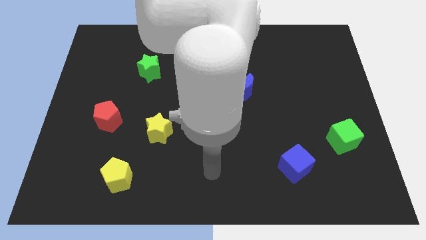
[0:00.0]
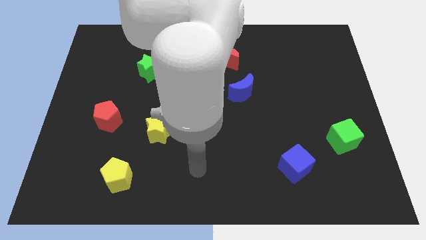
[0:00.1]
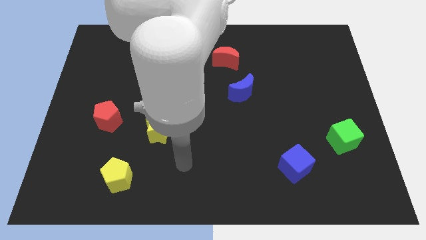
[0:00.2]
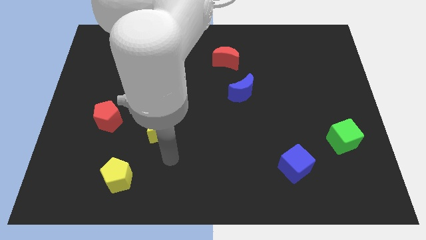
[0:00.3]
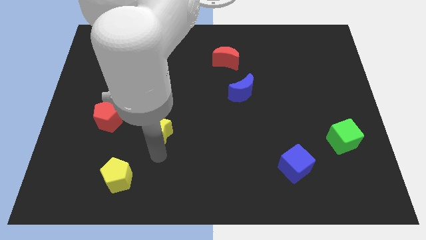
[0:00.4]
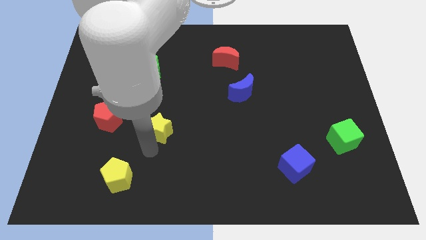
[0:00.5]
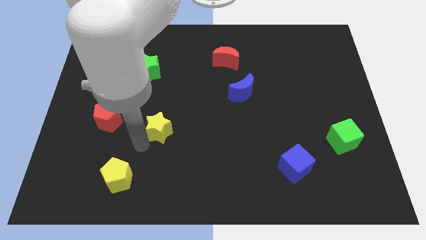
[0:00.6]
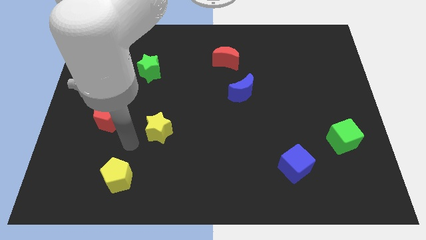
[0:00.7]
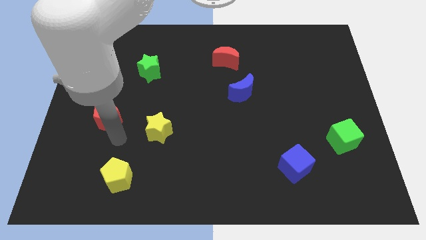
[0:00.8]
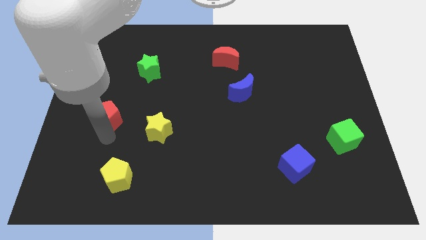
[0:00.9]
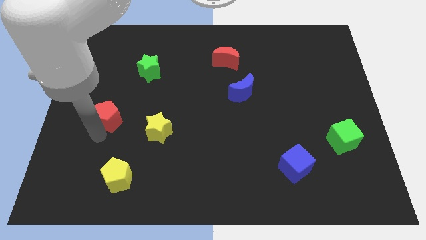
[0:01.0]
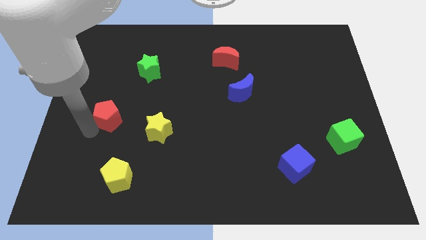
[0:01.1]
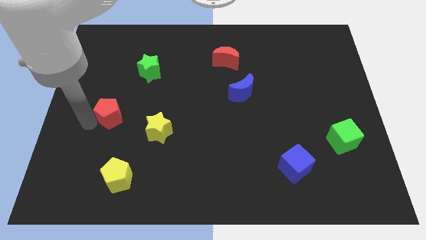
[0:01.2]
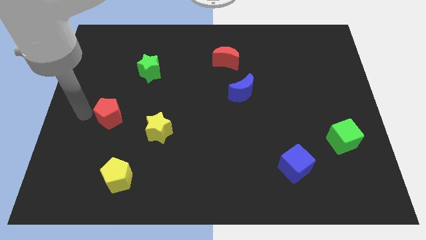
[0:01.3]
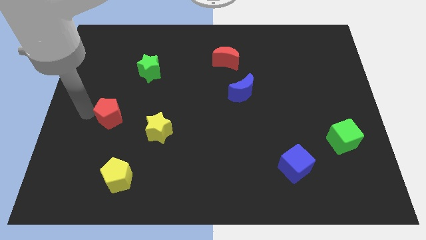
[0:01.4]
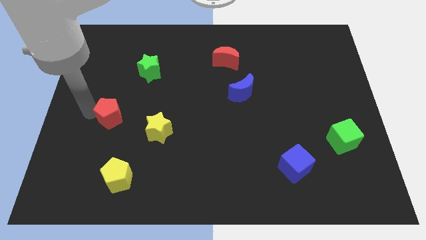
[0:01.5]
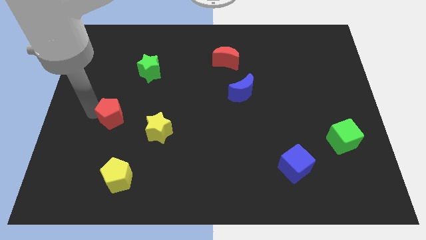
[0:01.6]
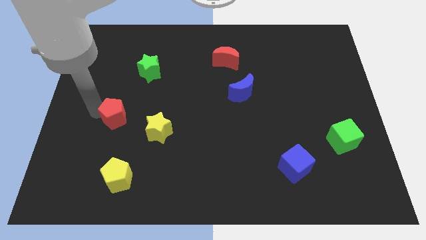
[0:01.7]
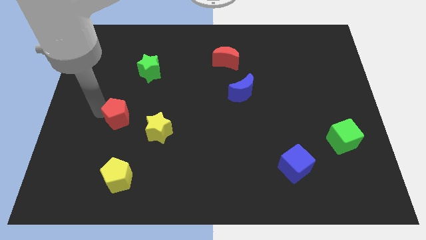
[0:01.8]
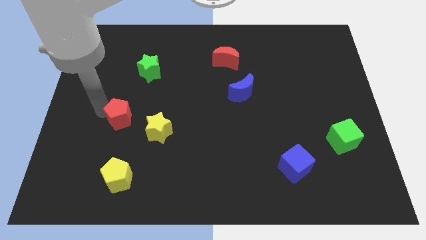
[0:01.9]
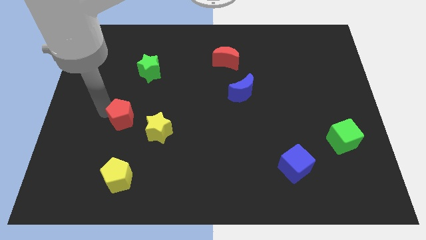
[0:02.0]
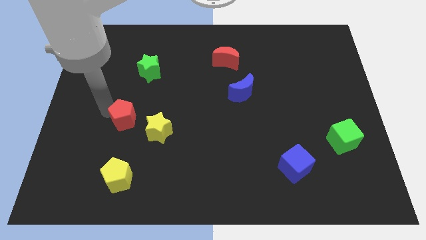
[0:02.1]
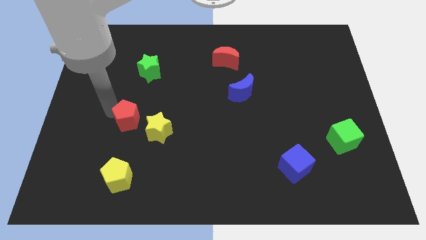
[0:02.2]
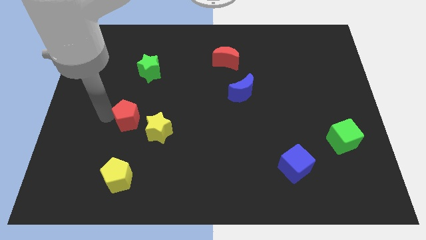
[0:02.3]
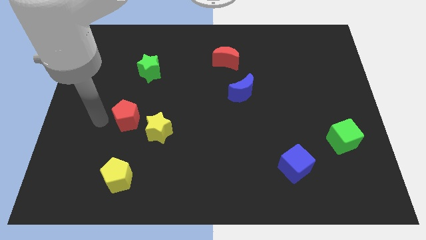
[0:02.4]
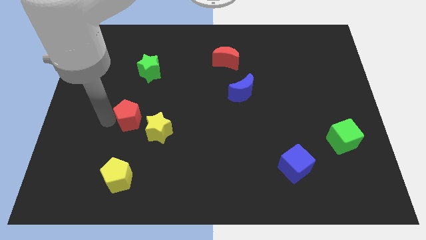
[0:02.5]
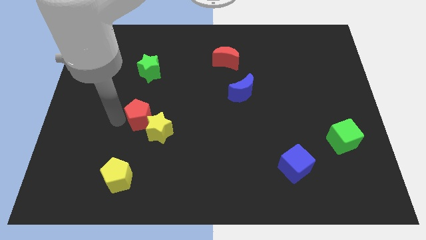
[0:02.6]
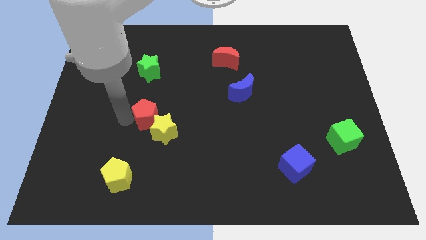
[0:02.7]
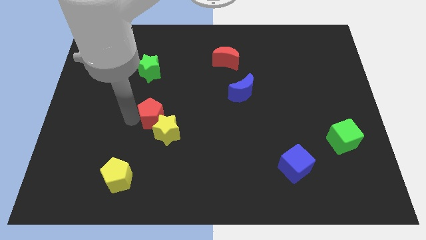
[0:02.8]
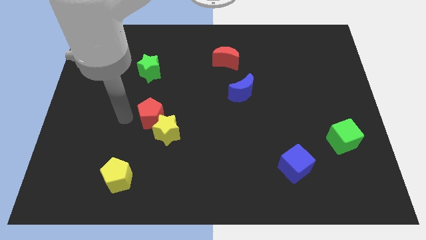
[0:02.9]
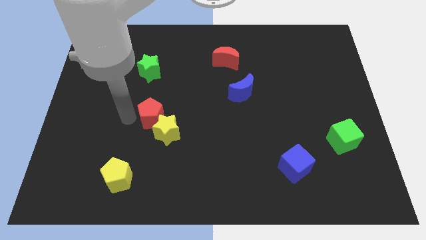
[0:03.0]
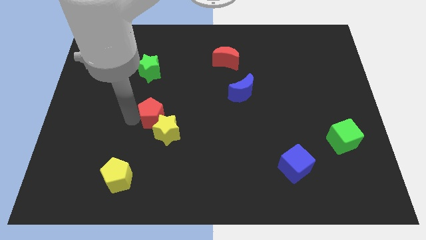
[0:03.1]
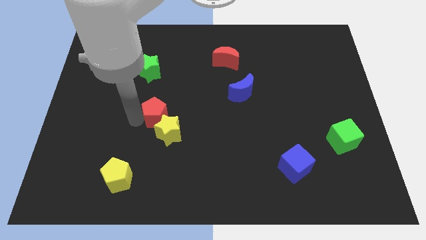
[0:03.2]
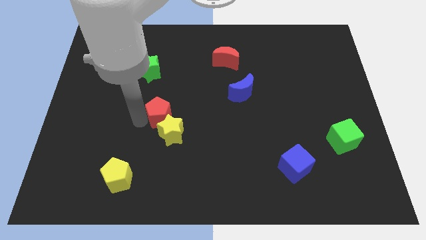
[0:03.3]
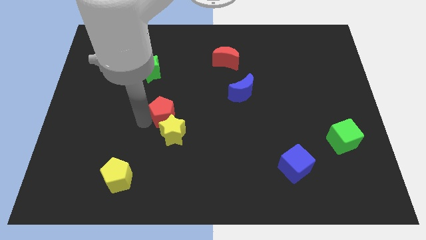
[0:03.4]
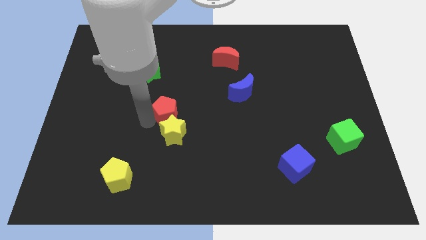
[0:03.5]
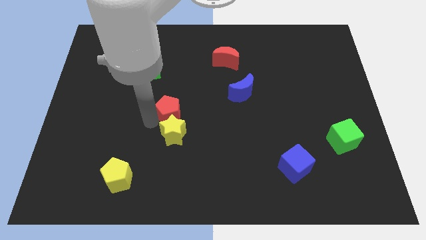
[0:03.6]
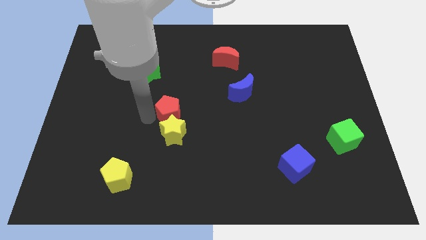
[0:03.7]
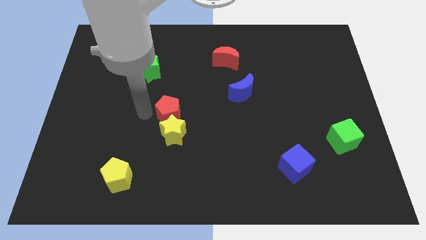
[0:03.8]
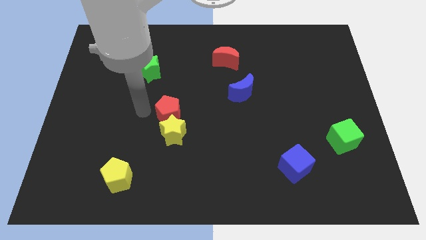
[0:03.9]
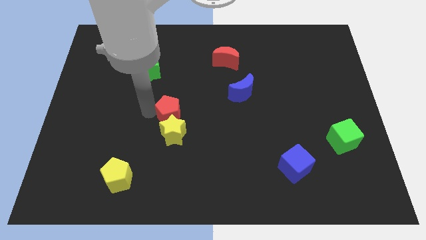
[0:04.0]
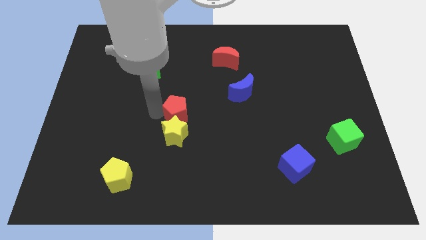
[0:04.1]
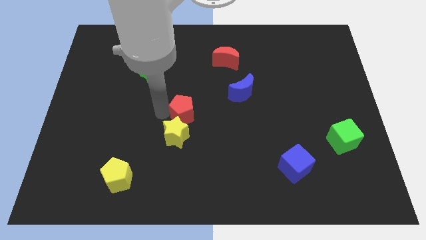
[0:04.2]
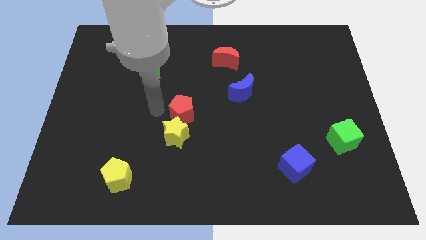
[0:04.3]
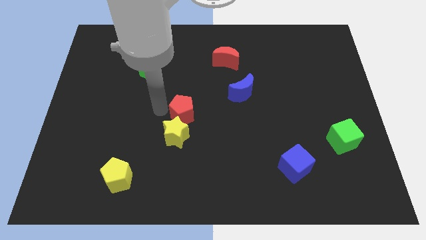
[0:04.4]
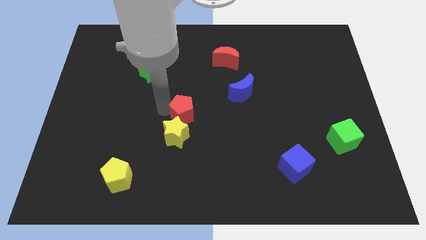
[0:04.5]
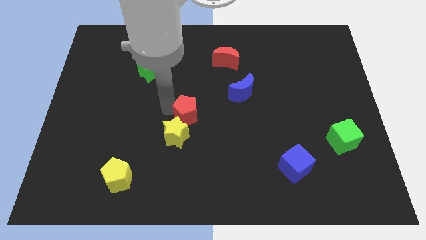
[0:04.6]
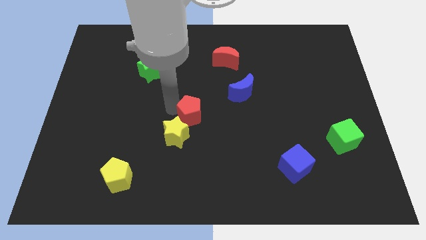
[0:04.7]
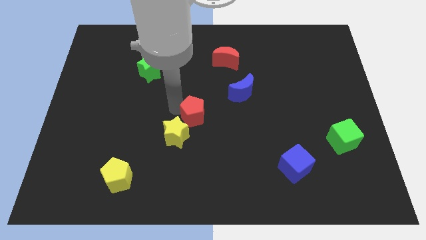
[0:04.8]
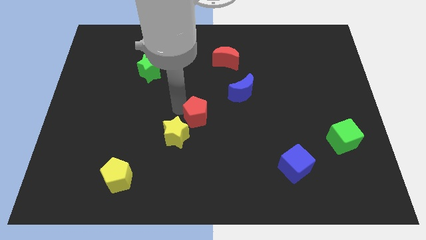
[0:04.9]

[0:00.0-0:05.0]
slide the red pentagon to the right

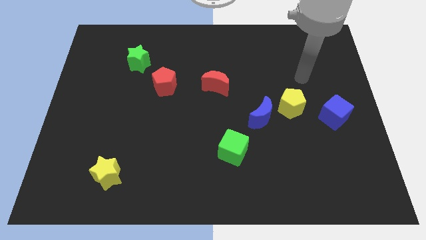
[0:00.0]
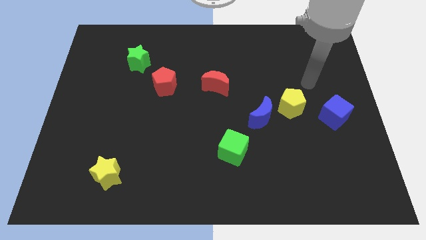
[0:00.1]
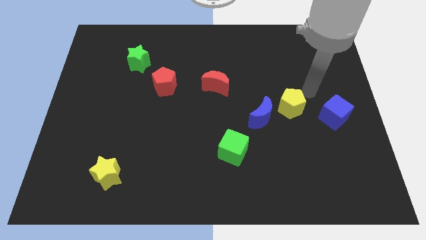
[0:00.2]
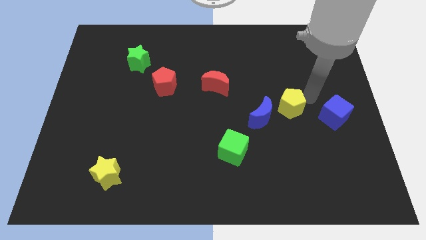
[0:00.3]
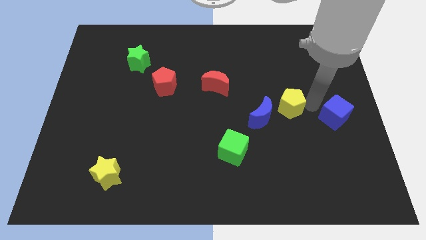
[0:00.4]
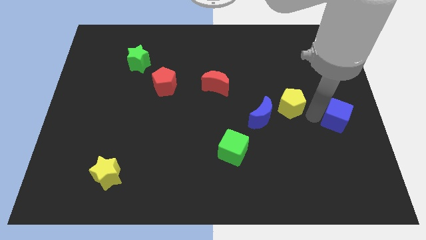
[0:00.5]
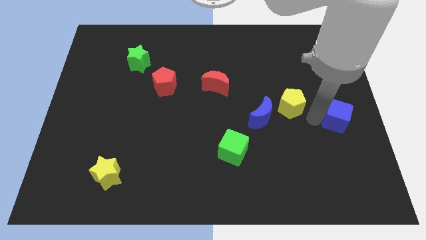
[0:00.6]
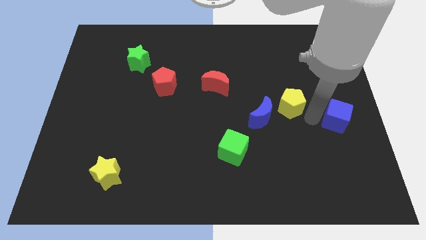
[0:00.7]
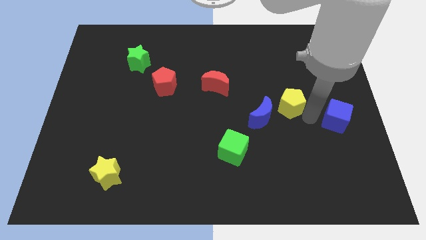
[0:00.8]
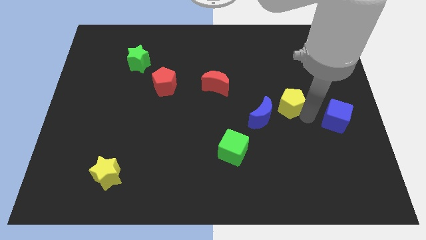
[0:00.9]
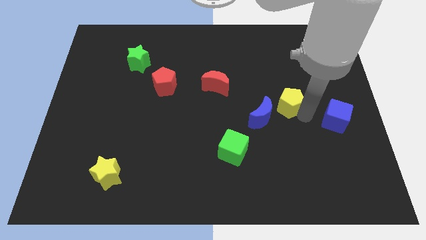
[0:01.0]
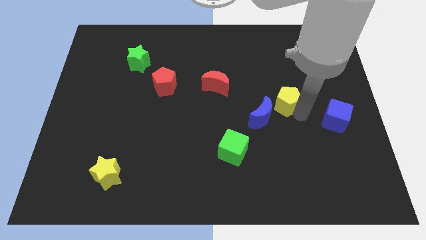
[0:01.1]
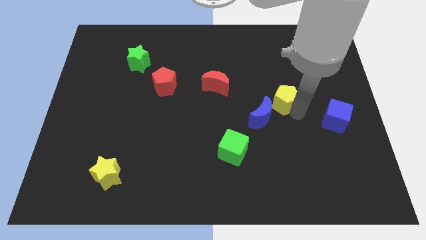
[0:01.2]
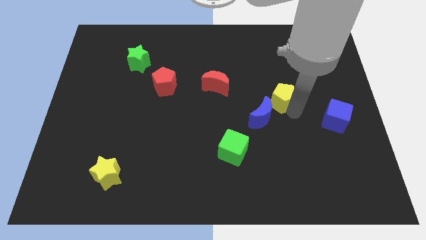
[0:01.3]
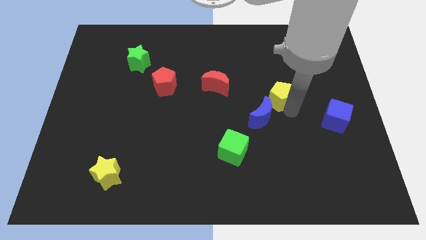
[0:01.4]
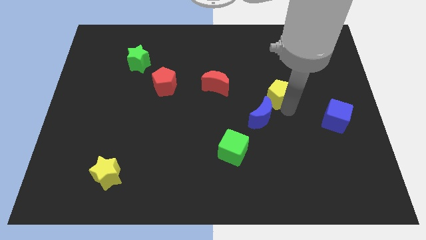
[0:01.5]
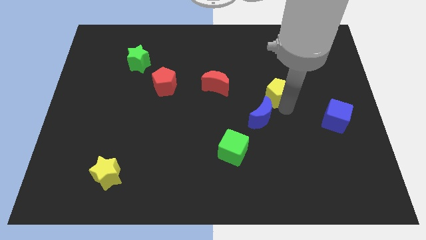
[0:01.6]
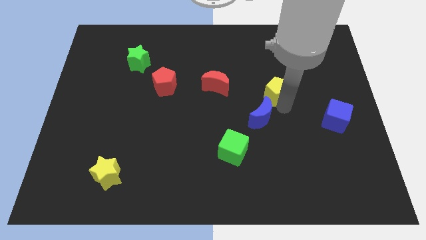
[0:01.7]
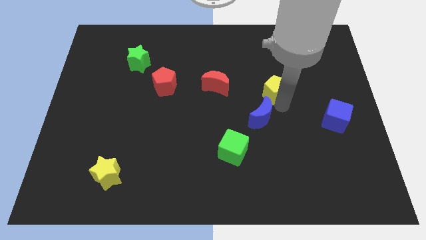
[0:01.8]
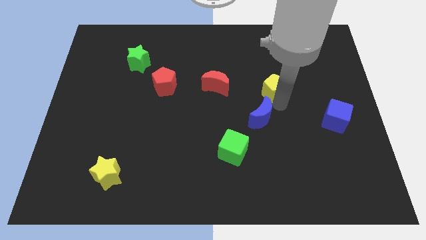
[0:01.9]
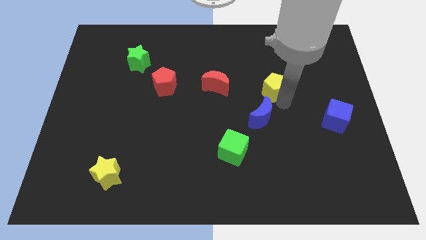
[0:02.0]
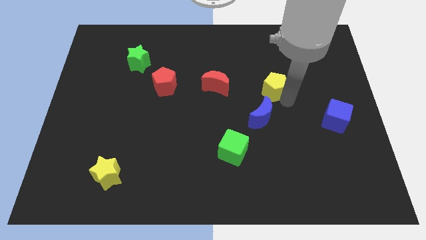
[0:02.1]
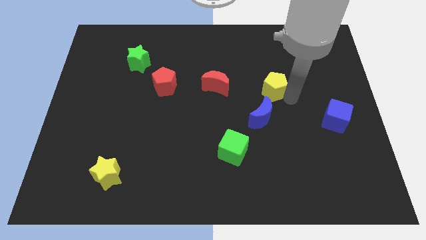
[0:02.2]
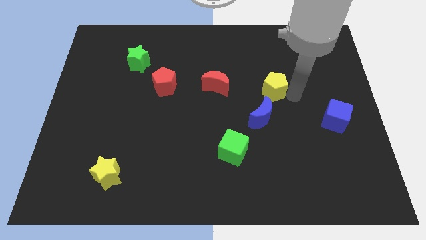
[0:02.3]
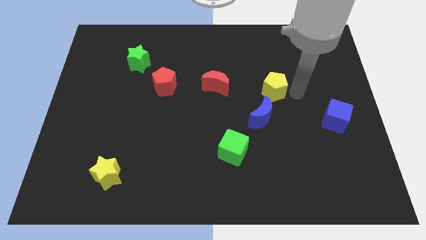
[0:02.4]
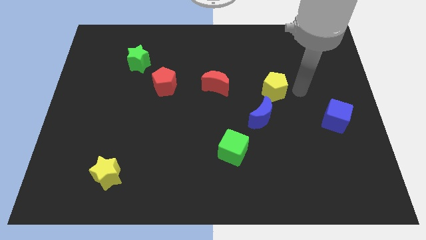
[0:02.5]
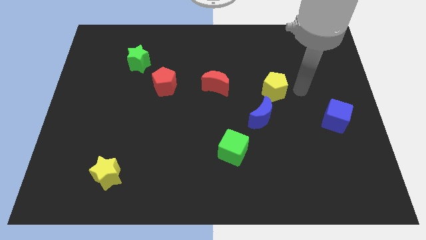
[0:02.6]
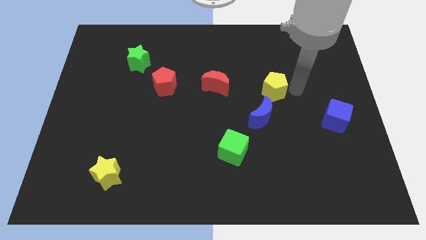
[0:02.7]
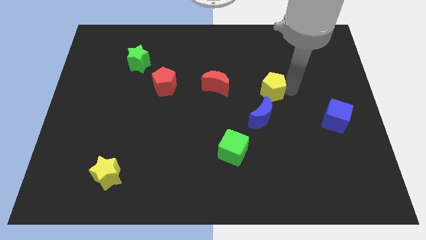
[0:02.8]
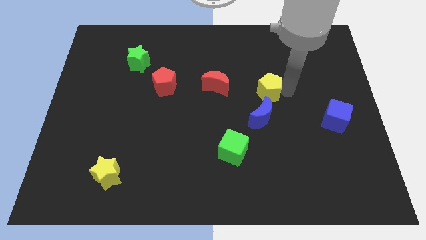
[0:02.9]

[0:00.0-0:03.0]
push the yellow pentagon diagonally upwards and to the left a bit
